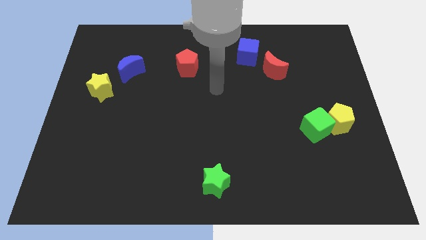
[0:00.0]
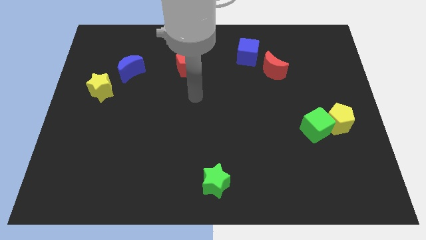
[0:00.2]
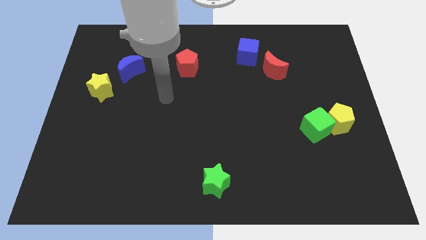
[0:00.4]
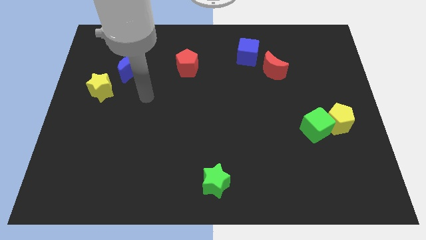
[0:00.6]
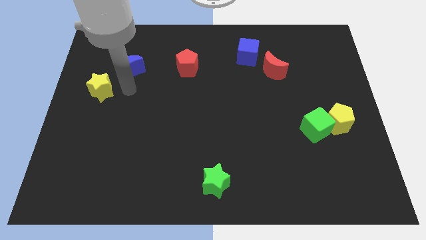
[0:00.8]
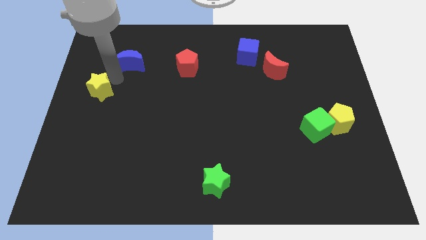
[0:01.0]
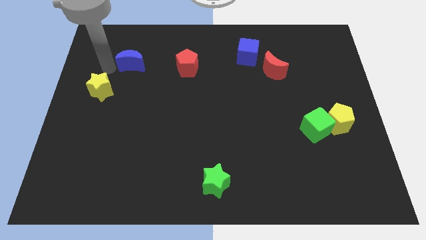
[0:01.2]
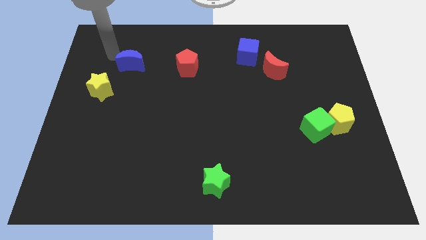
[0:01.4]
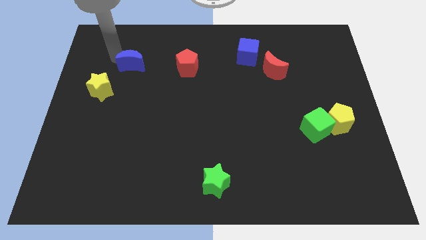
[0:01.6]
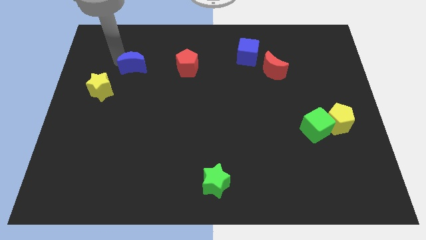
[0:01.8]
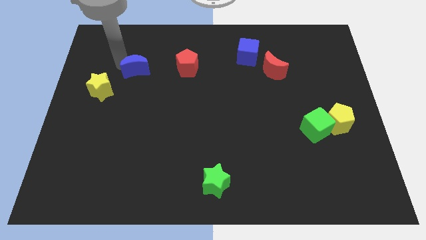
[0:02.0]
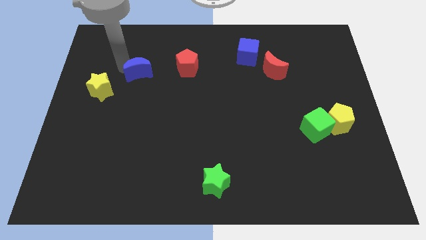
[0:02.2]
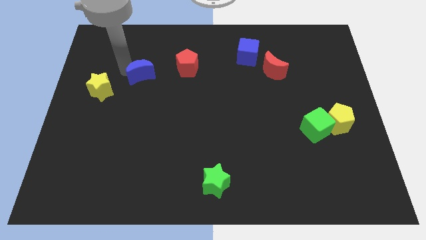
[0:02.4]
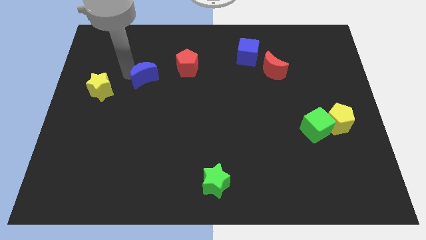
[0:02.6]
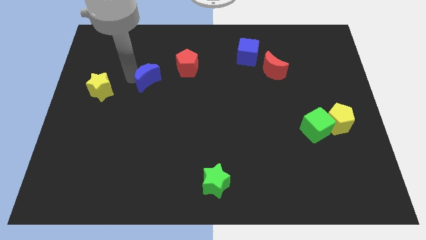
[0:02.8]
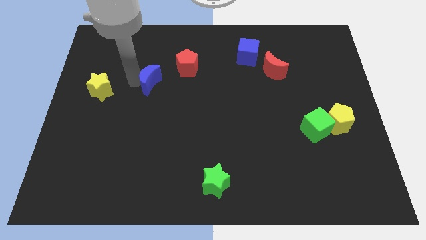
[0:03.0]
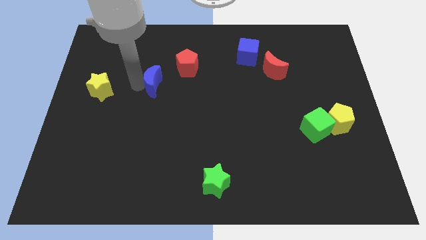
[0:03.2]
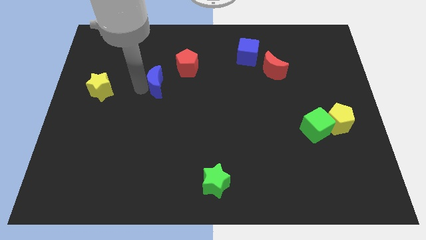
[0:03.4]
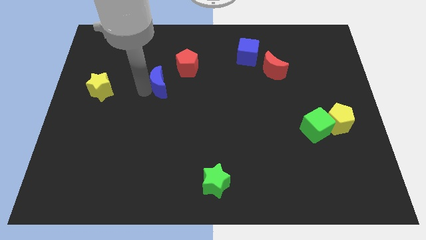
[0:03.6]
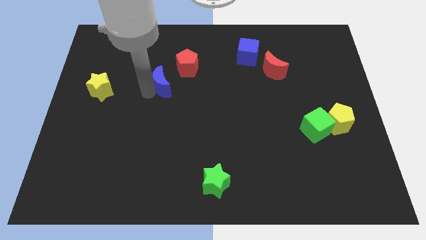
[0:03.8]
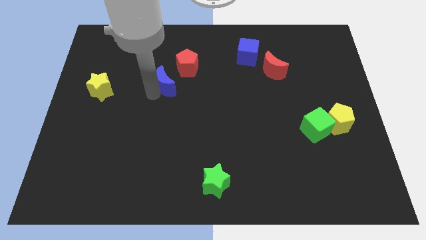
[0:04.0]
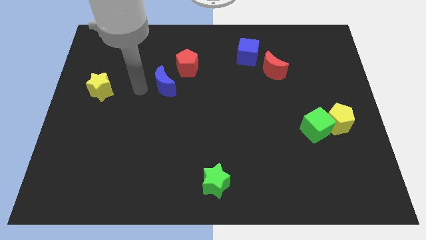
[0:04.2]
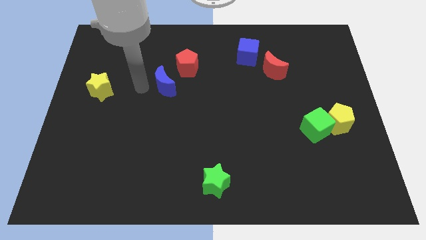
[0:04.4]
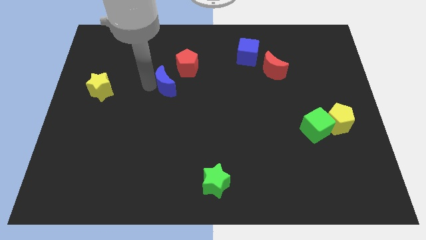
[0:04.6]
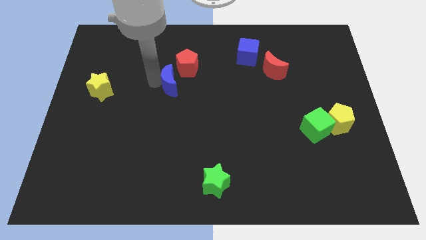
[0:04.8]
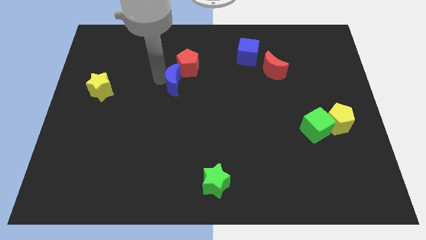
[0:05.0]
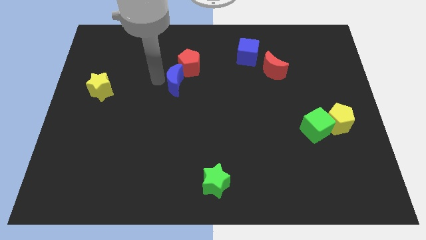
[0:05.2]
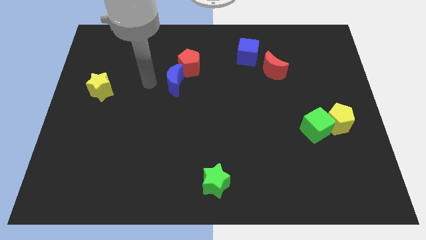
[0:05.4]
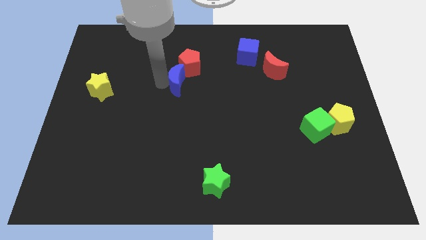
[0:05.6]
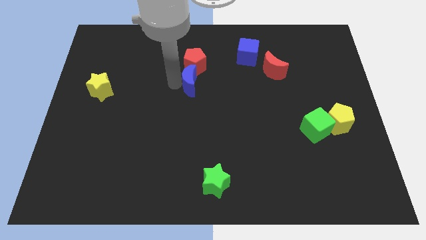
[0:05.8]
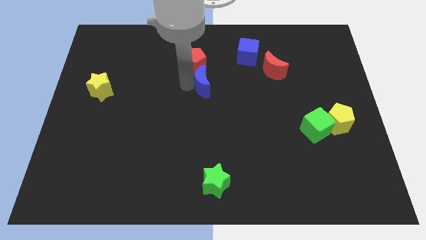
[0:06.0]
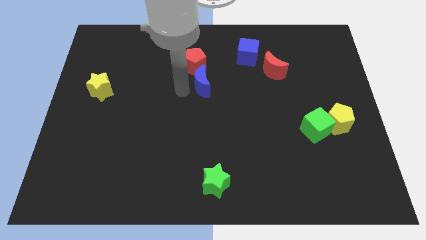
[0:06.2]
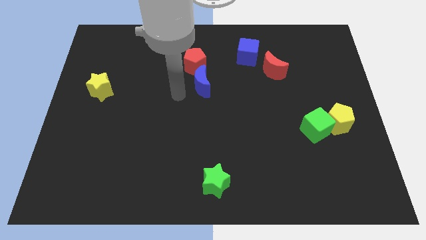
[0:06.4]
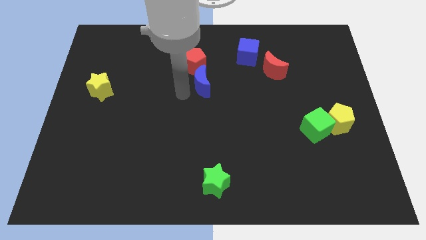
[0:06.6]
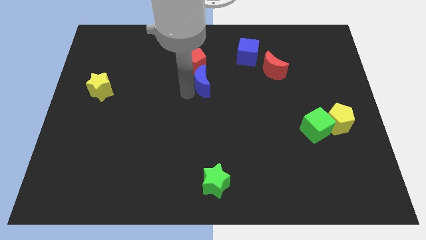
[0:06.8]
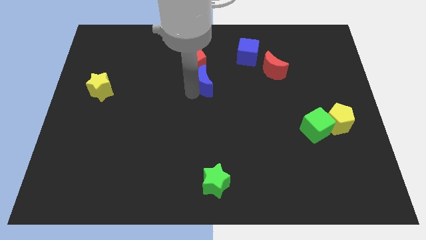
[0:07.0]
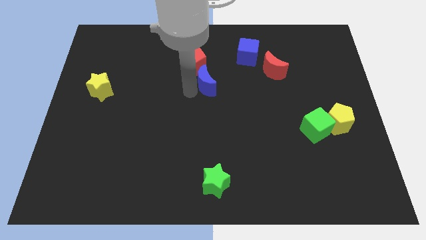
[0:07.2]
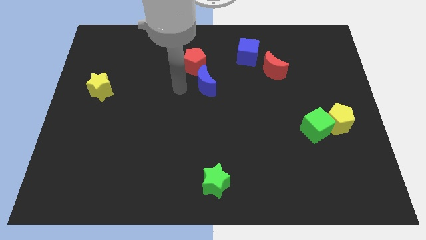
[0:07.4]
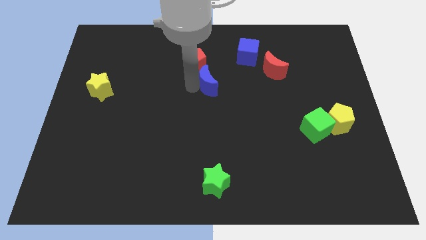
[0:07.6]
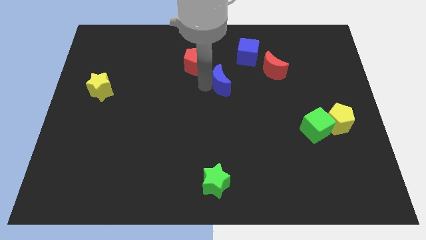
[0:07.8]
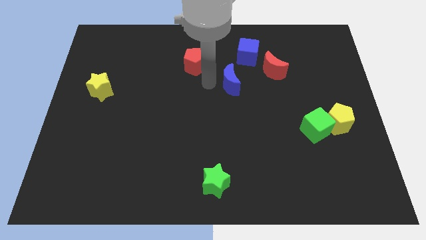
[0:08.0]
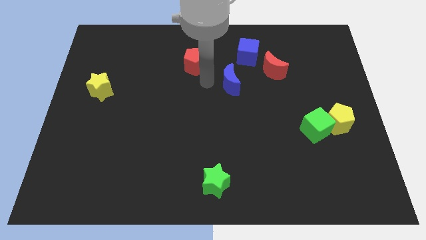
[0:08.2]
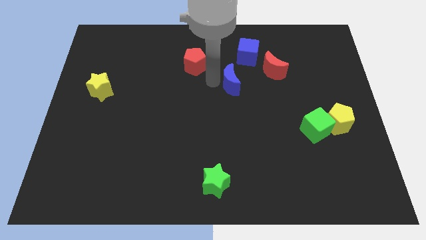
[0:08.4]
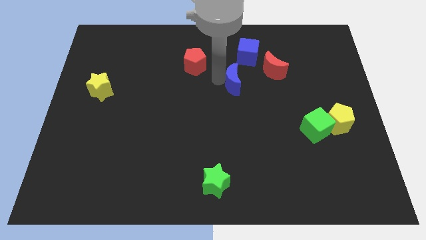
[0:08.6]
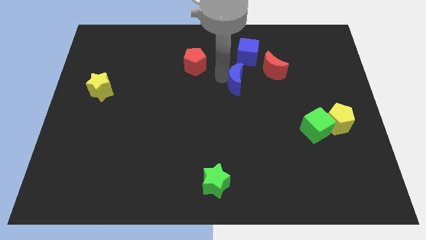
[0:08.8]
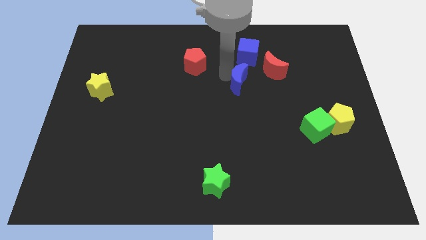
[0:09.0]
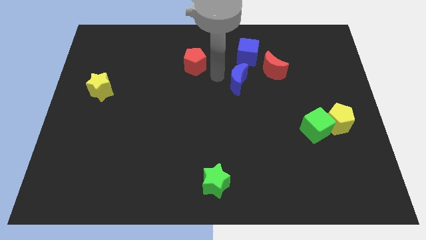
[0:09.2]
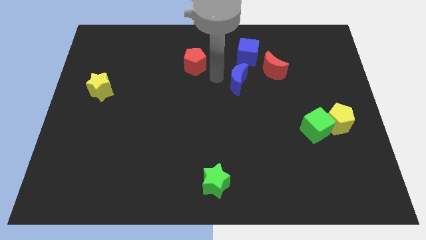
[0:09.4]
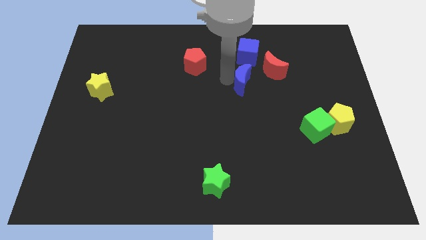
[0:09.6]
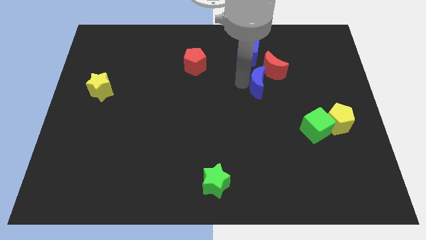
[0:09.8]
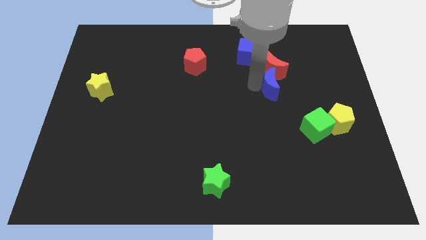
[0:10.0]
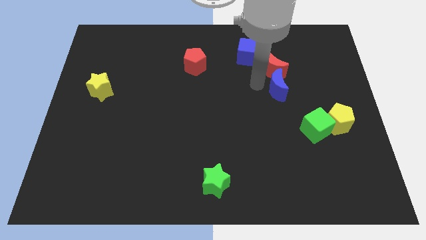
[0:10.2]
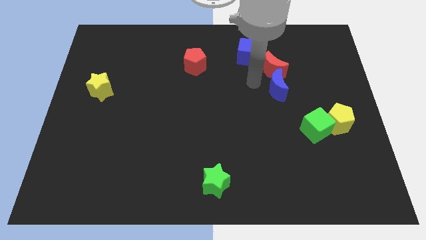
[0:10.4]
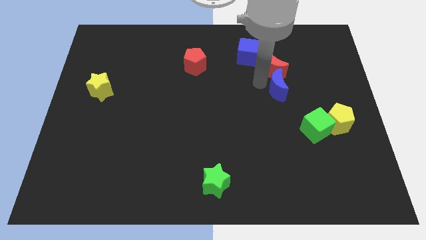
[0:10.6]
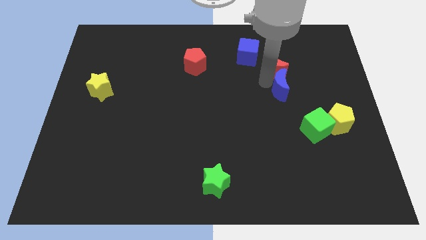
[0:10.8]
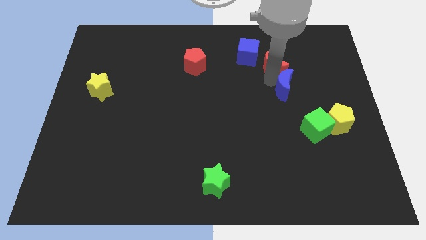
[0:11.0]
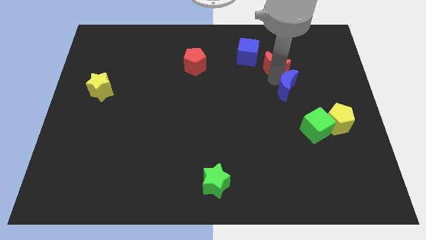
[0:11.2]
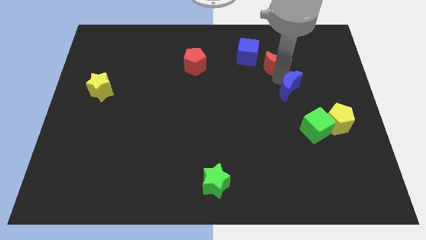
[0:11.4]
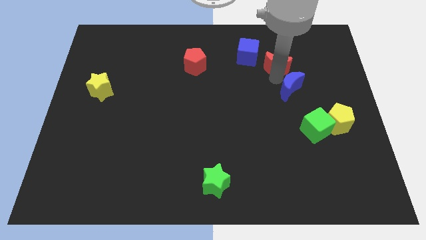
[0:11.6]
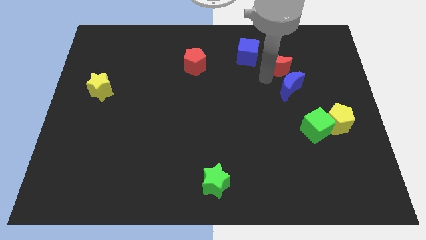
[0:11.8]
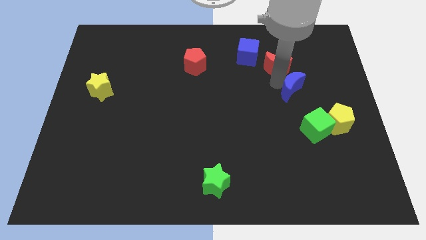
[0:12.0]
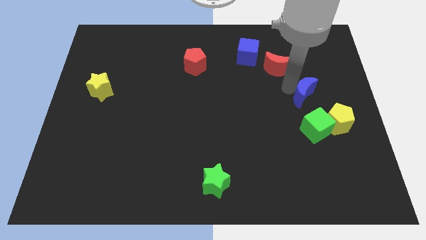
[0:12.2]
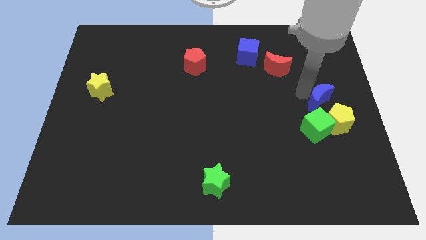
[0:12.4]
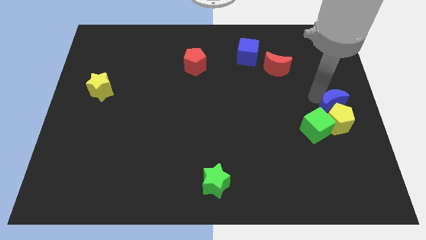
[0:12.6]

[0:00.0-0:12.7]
move the blue moon next to the yellow pentagon

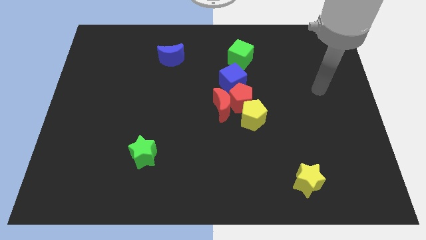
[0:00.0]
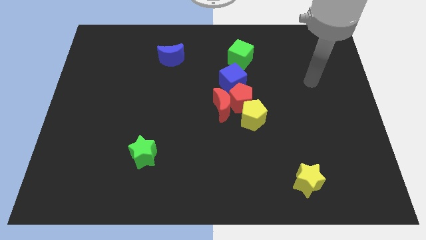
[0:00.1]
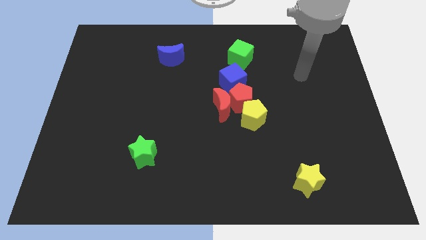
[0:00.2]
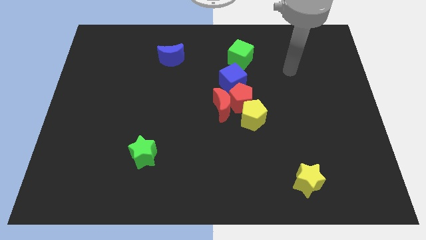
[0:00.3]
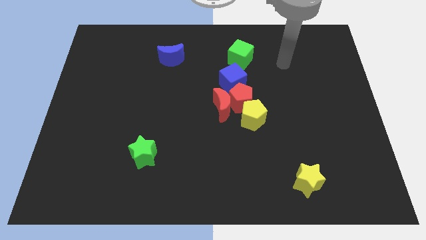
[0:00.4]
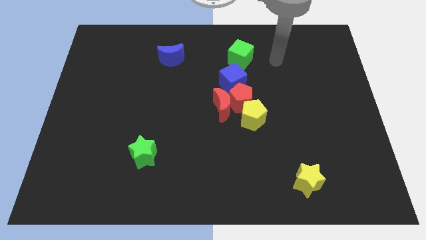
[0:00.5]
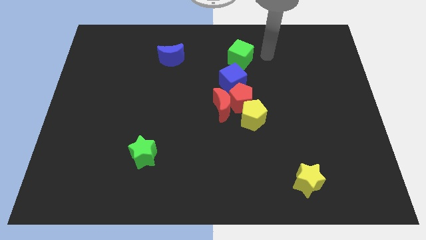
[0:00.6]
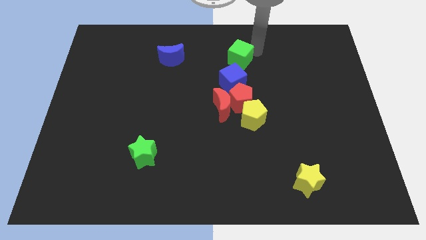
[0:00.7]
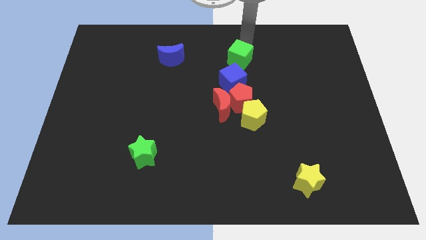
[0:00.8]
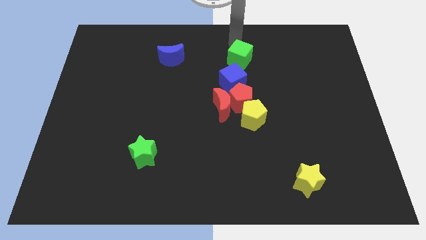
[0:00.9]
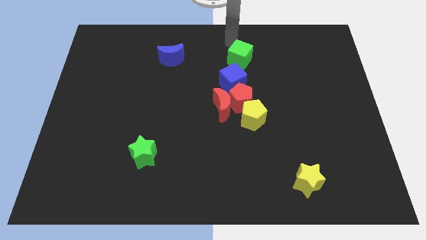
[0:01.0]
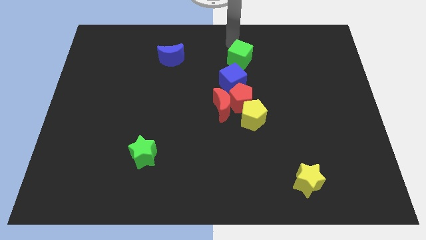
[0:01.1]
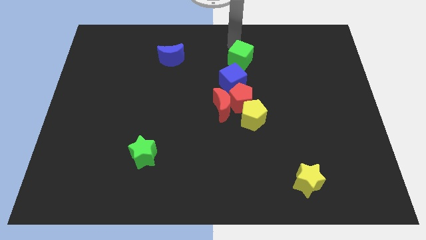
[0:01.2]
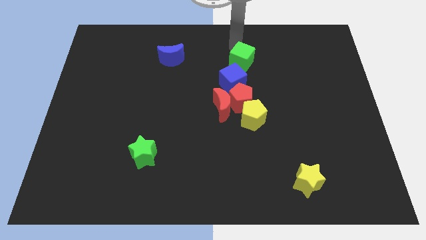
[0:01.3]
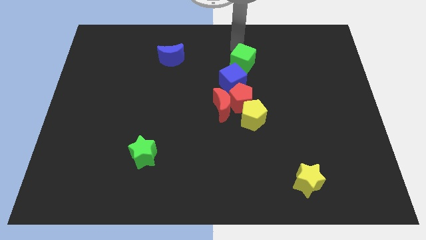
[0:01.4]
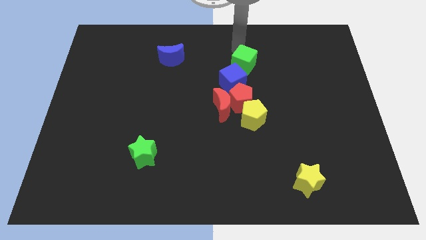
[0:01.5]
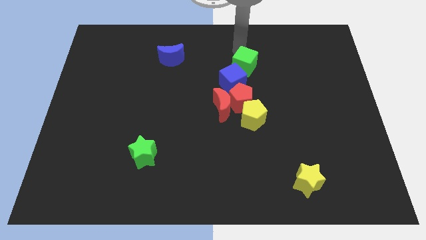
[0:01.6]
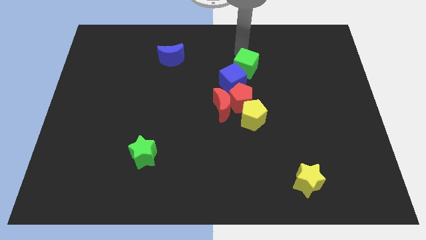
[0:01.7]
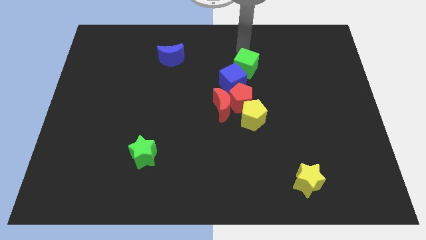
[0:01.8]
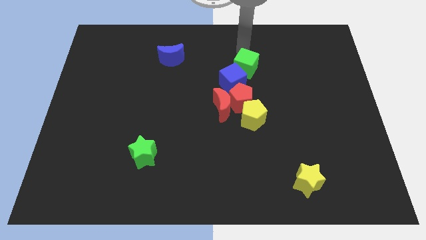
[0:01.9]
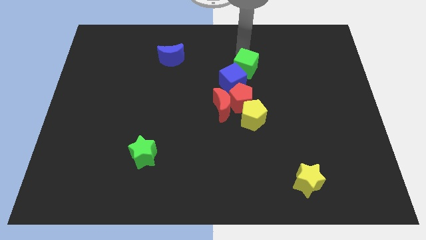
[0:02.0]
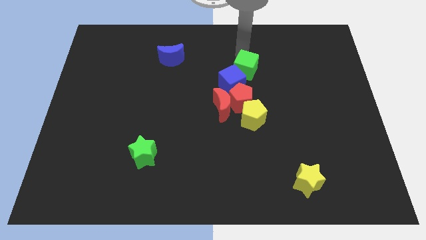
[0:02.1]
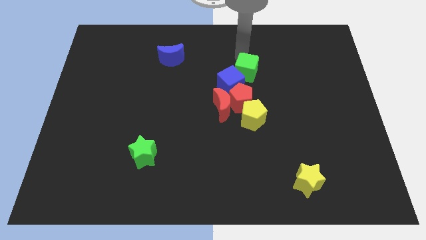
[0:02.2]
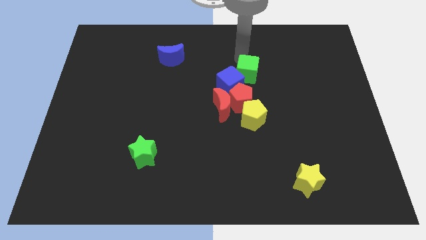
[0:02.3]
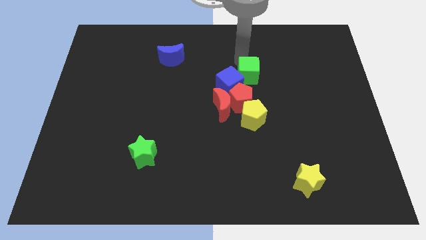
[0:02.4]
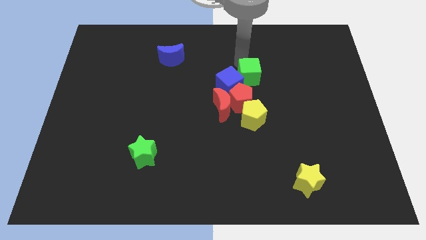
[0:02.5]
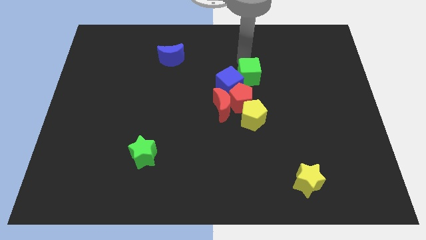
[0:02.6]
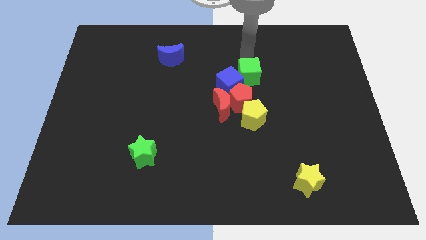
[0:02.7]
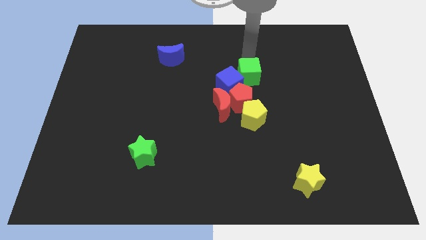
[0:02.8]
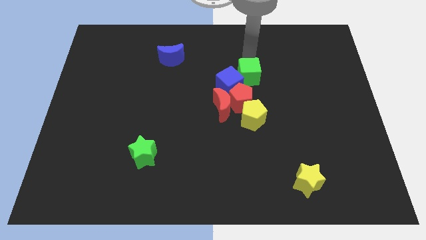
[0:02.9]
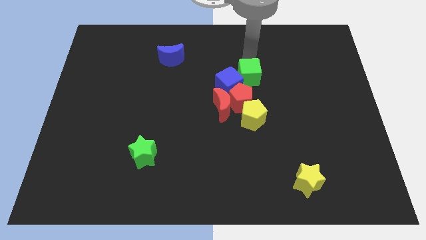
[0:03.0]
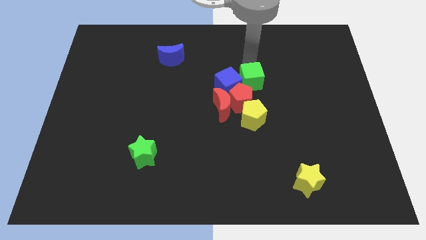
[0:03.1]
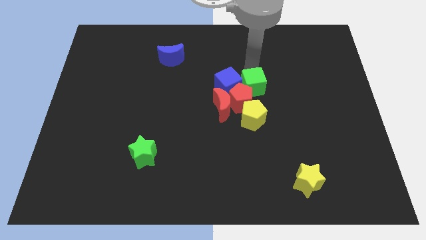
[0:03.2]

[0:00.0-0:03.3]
move the green cube close to the red pentagon
